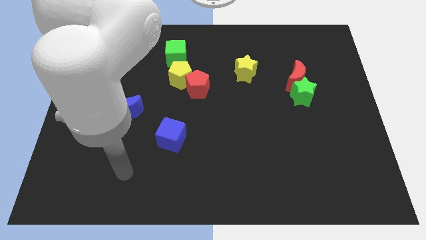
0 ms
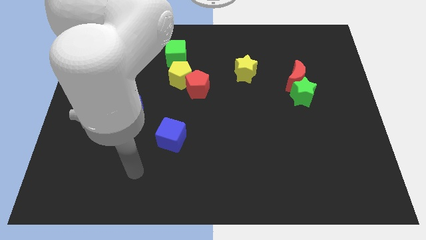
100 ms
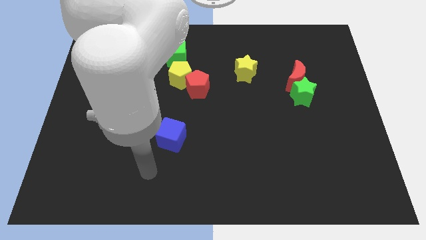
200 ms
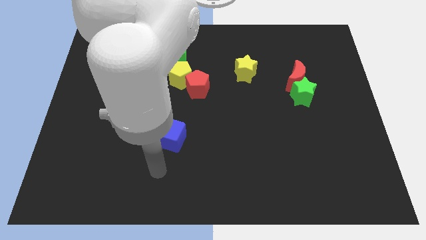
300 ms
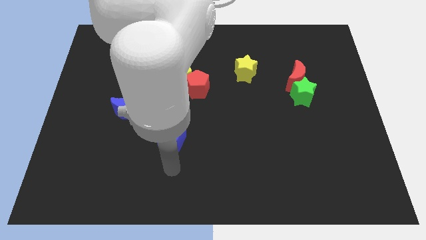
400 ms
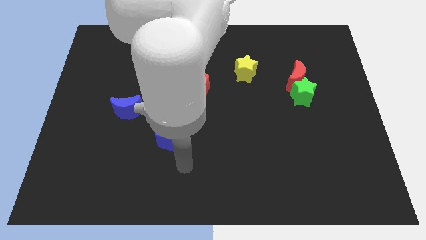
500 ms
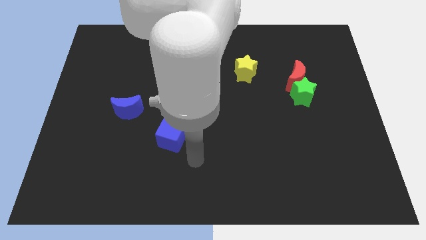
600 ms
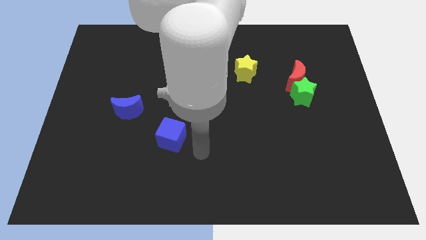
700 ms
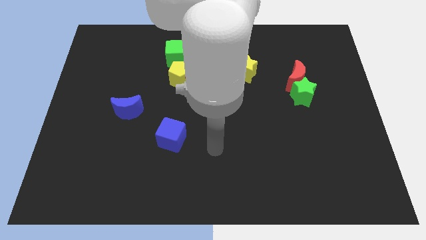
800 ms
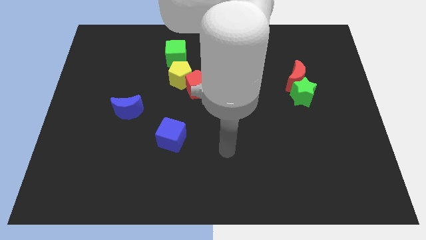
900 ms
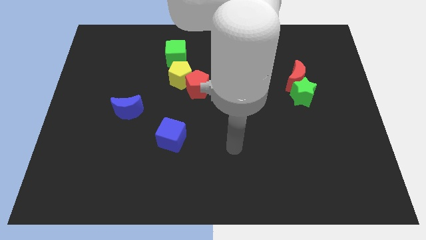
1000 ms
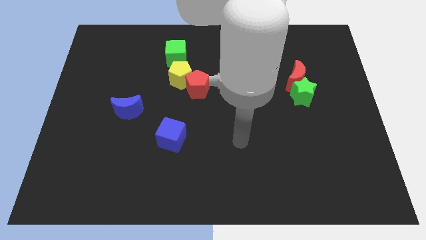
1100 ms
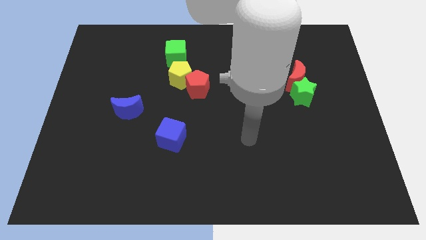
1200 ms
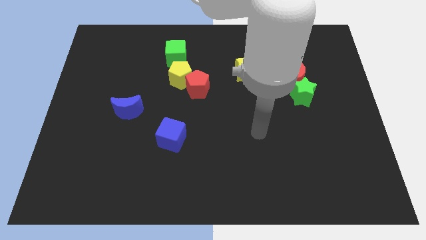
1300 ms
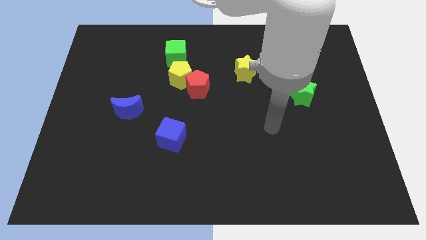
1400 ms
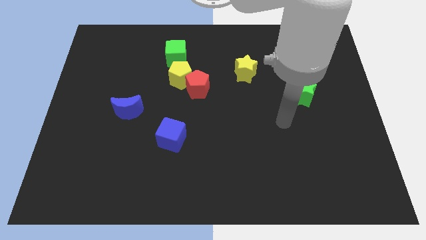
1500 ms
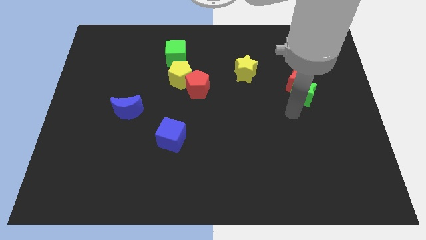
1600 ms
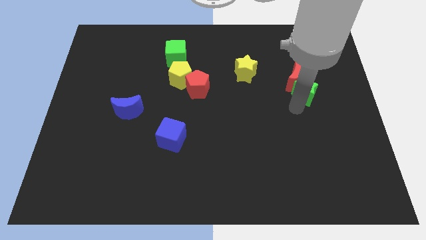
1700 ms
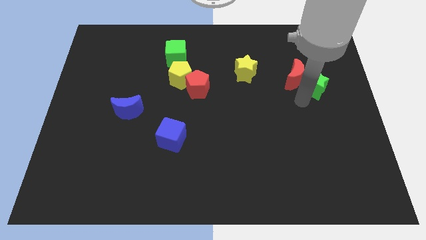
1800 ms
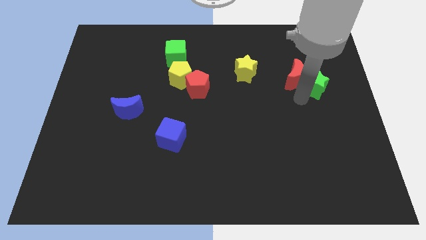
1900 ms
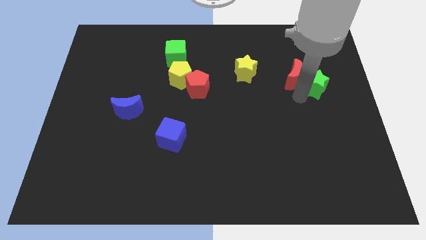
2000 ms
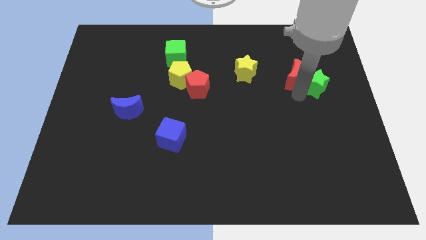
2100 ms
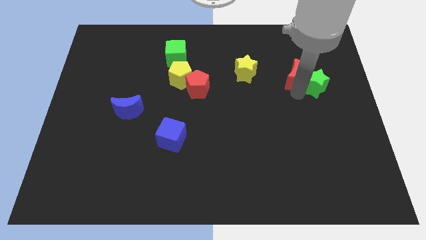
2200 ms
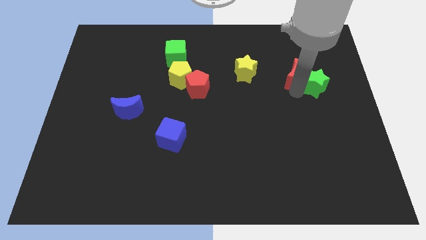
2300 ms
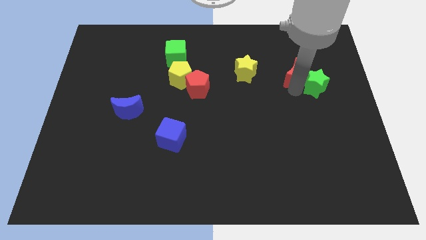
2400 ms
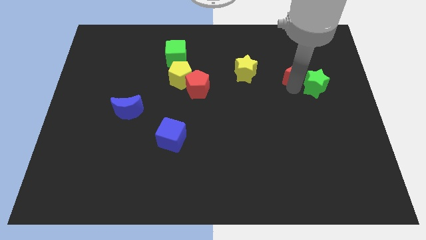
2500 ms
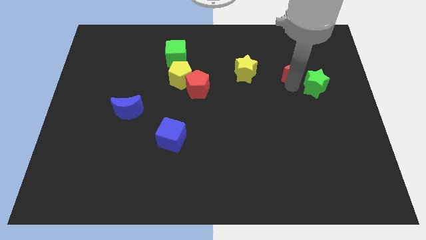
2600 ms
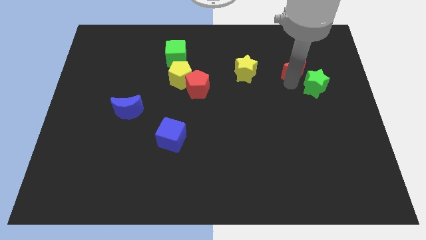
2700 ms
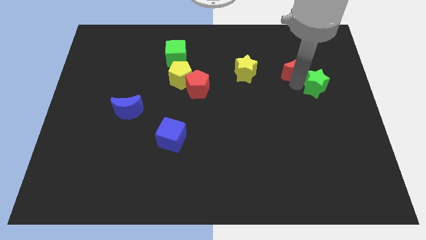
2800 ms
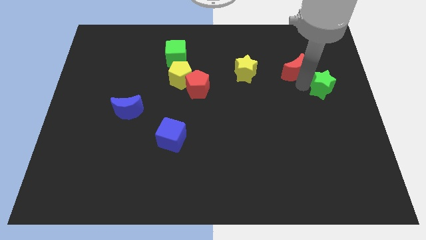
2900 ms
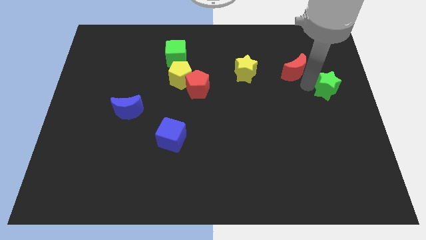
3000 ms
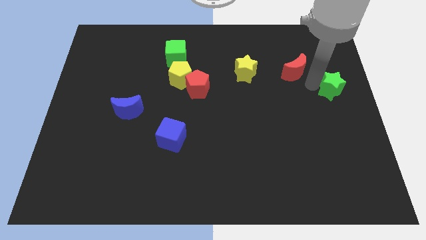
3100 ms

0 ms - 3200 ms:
separate the red moon from the green star

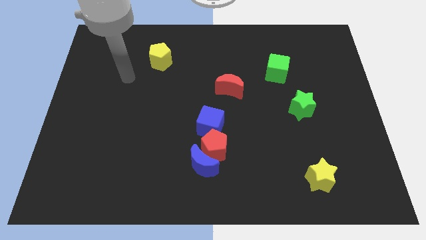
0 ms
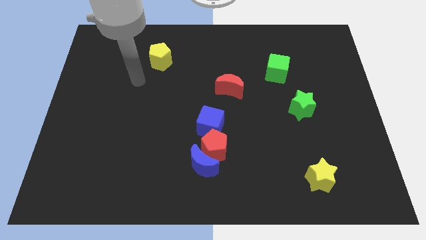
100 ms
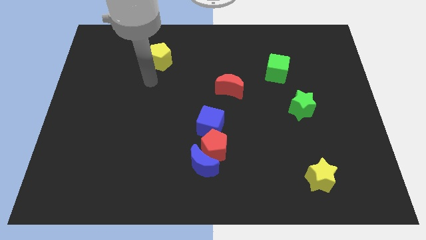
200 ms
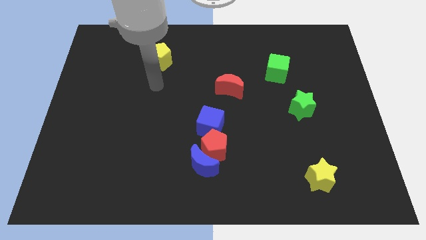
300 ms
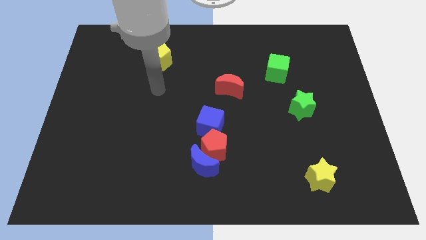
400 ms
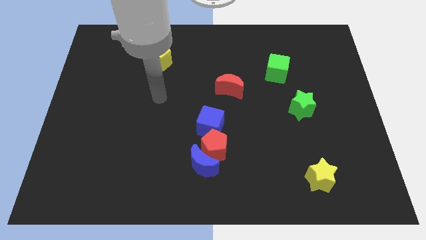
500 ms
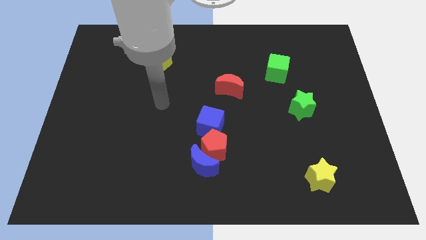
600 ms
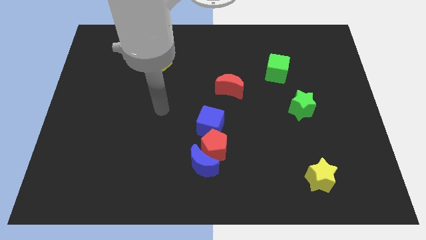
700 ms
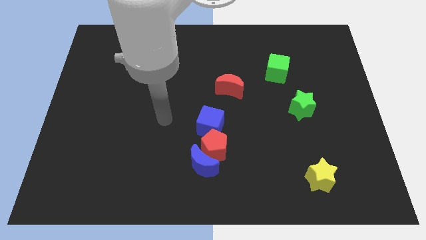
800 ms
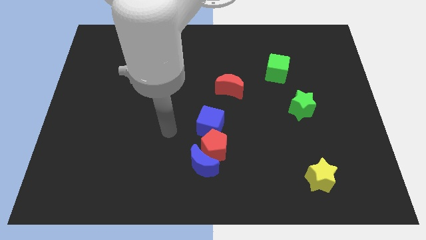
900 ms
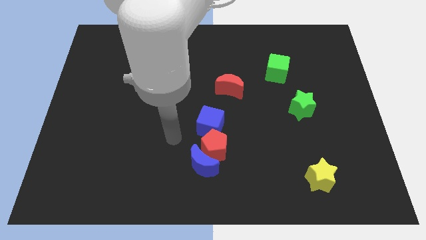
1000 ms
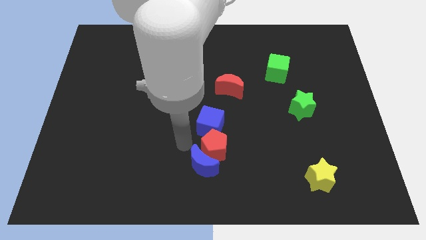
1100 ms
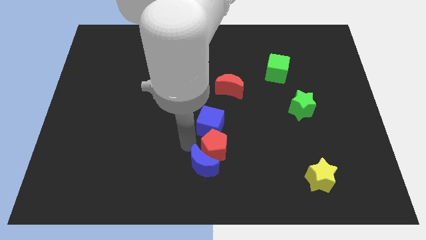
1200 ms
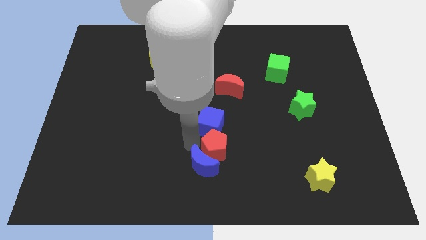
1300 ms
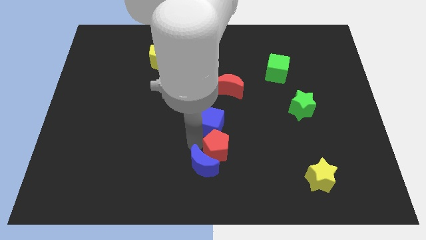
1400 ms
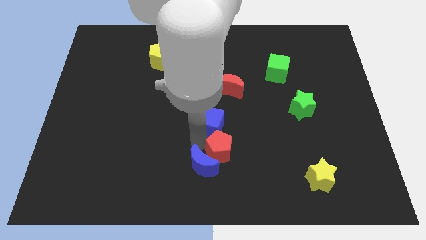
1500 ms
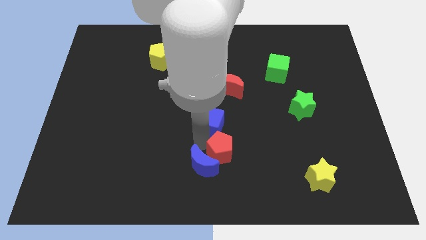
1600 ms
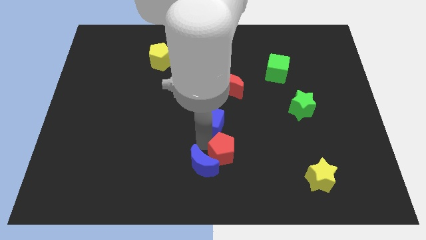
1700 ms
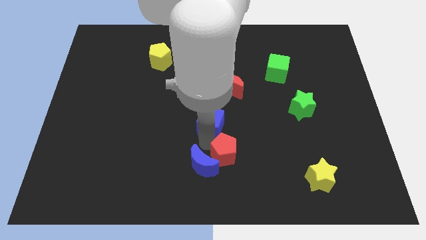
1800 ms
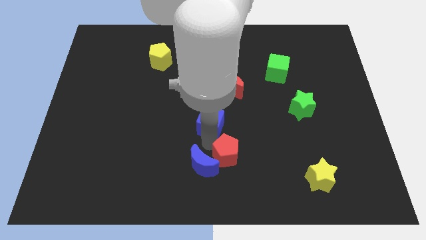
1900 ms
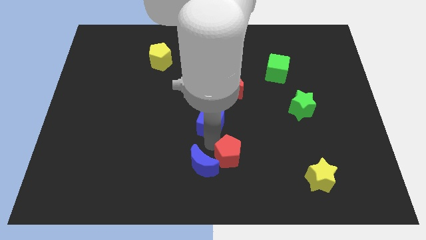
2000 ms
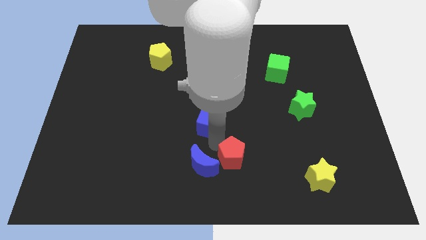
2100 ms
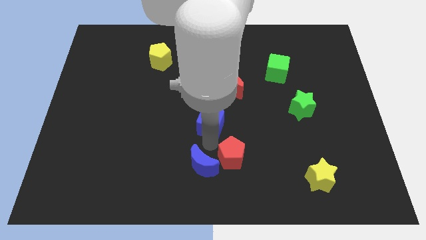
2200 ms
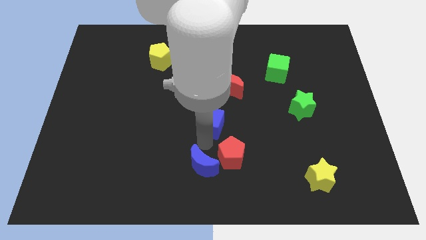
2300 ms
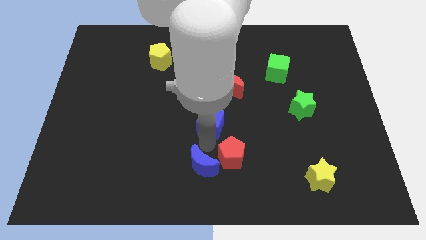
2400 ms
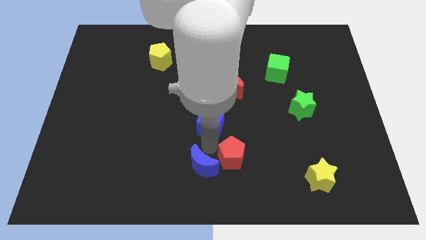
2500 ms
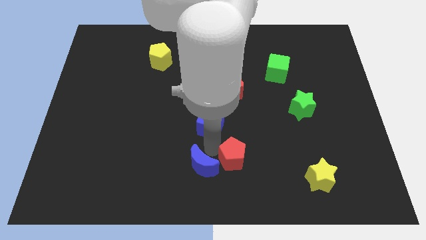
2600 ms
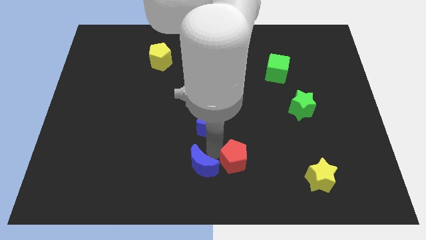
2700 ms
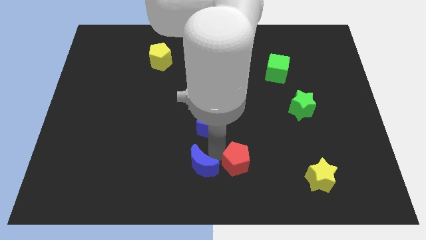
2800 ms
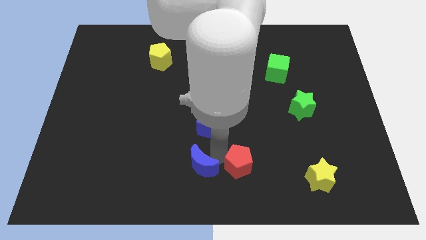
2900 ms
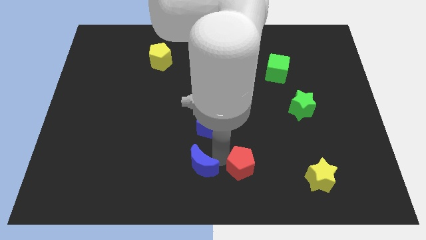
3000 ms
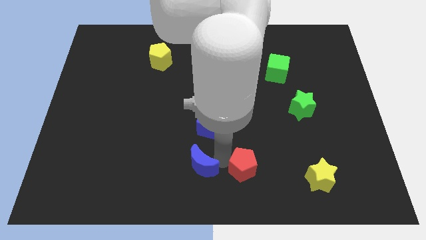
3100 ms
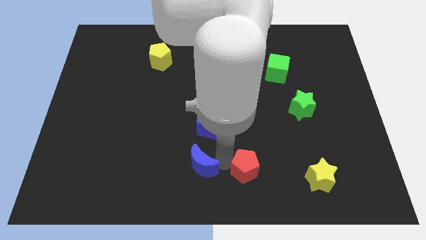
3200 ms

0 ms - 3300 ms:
move the red pentagon away from the blue moon and blue cube

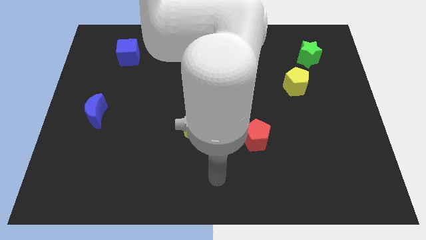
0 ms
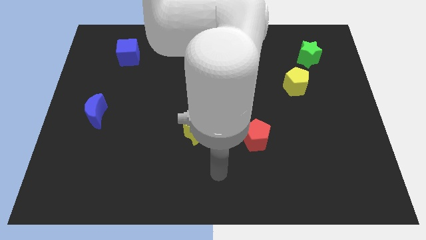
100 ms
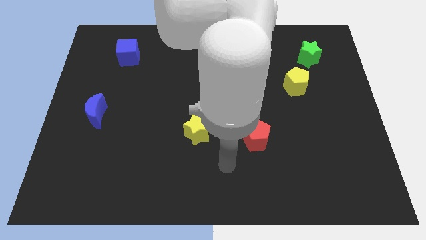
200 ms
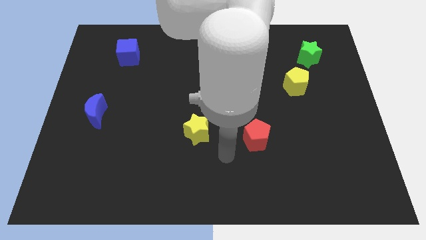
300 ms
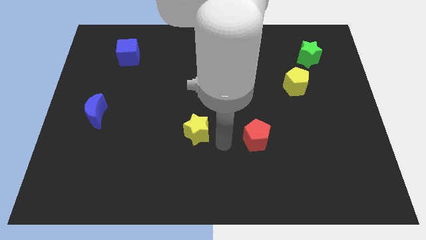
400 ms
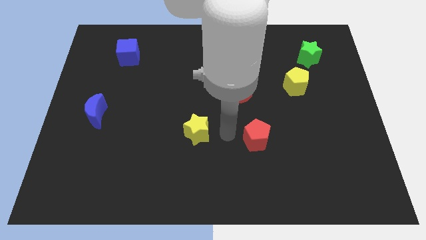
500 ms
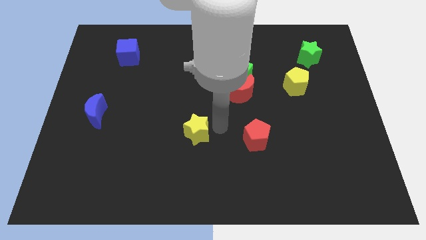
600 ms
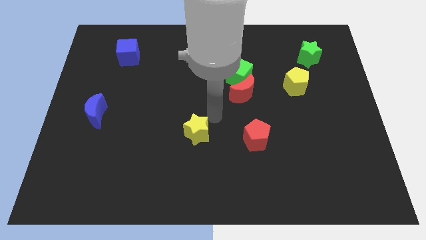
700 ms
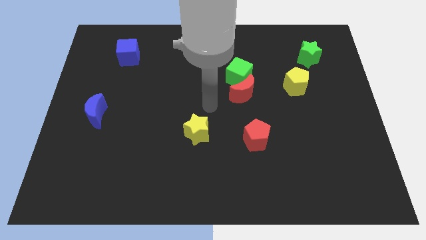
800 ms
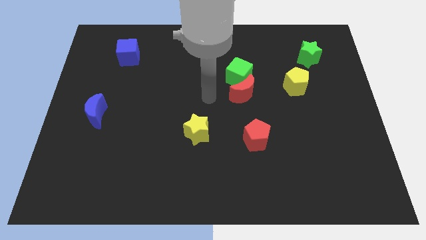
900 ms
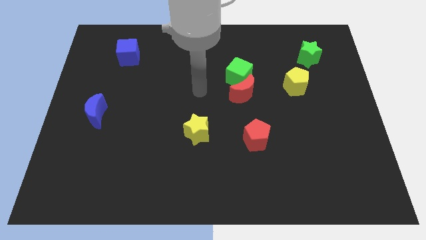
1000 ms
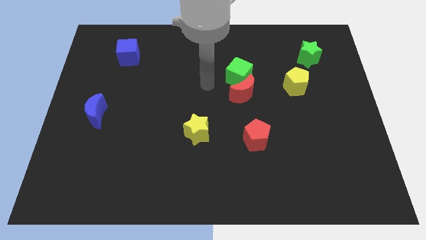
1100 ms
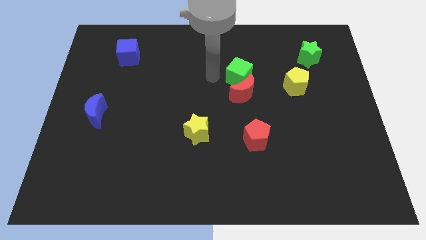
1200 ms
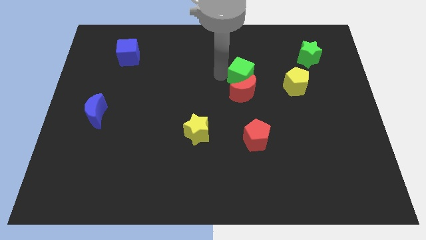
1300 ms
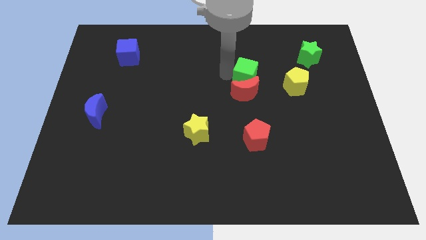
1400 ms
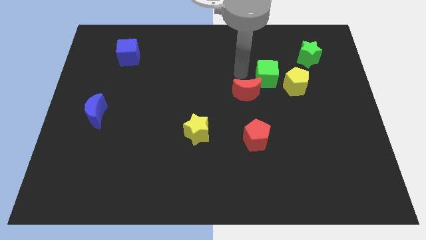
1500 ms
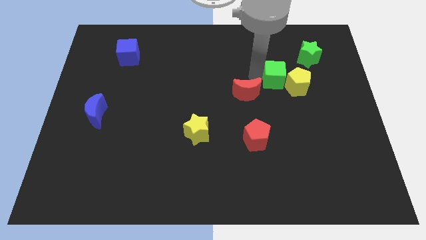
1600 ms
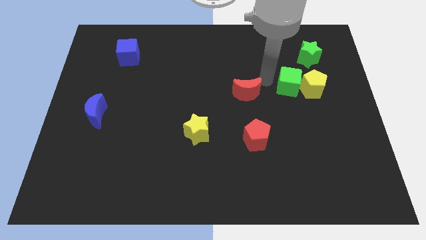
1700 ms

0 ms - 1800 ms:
pull the red moon apart from the green cube

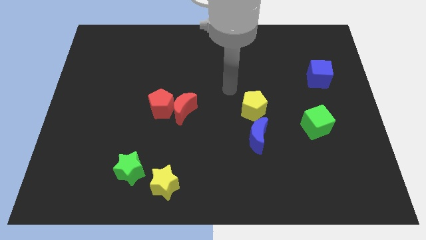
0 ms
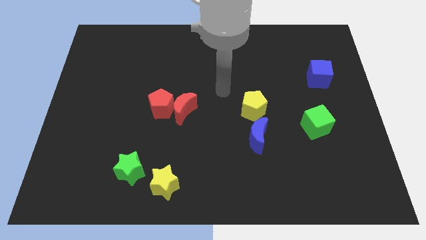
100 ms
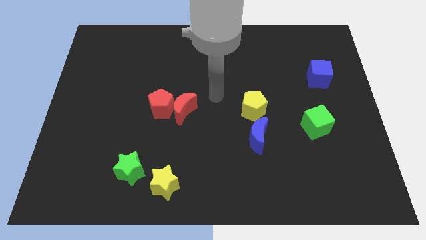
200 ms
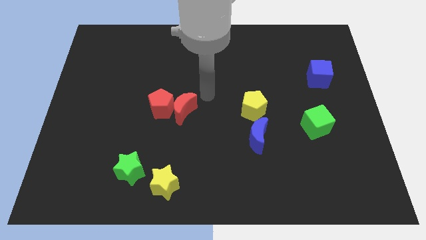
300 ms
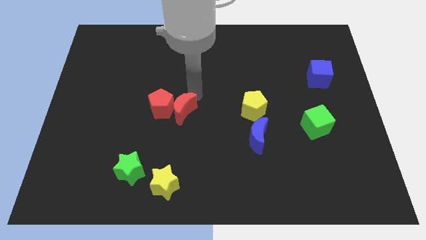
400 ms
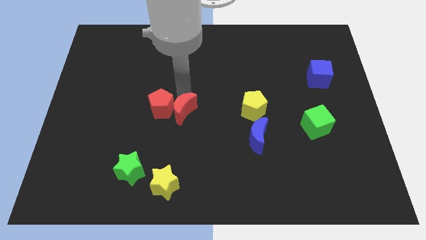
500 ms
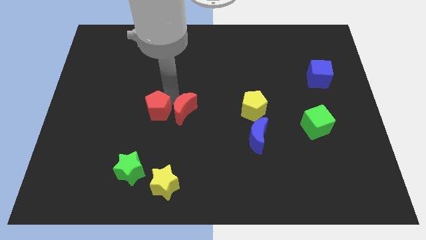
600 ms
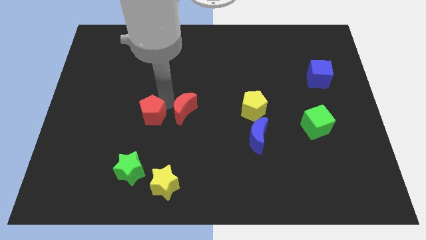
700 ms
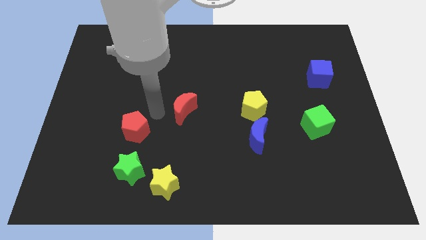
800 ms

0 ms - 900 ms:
pull the red moon apart from the red pentagon

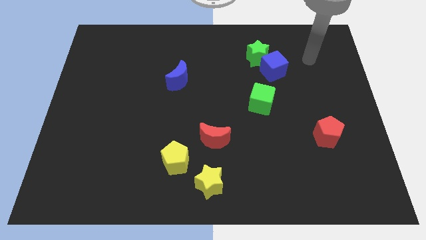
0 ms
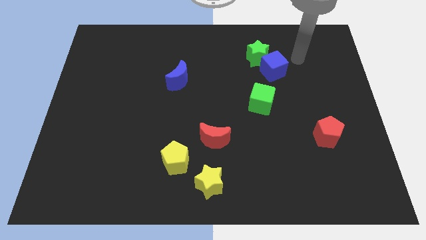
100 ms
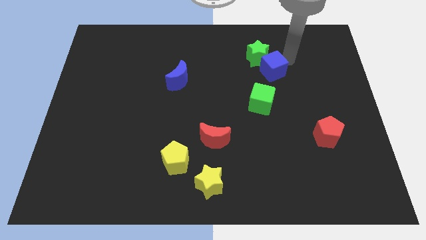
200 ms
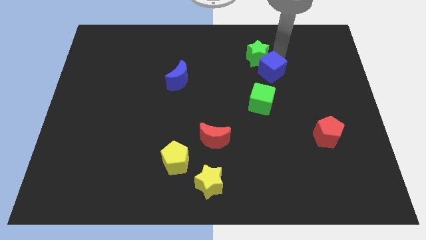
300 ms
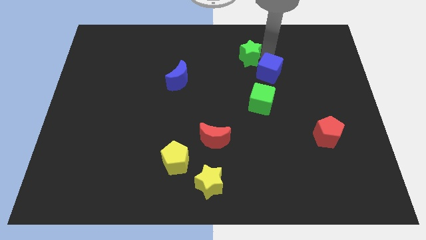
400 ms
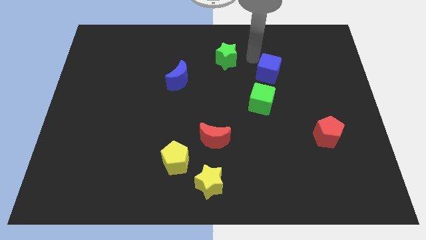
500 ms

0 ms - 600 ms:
move the blue cube away from the green star
